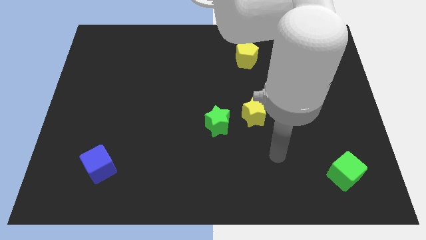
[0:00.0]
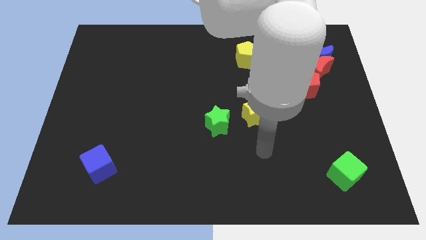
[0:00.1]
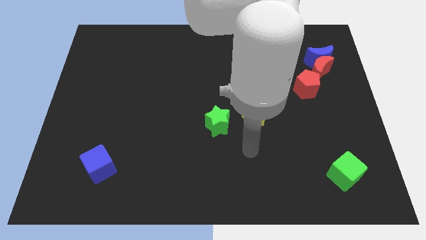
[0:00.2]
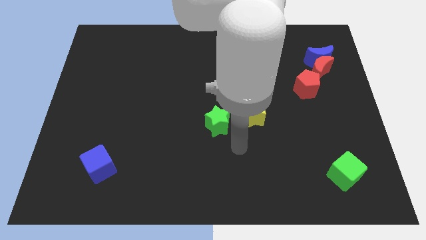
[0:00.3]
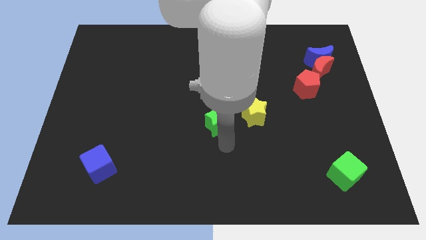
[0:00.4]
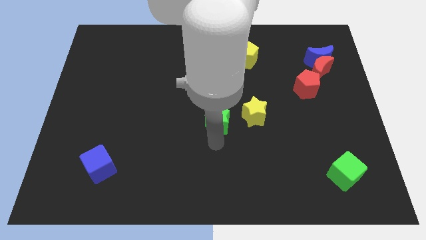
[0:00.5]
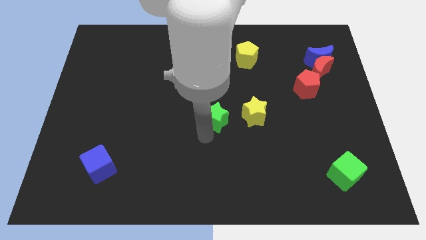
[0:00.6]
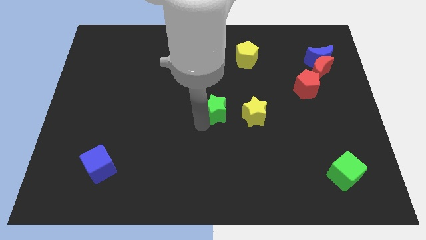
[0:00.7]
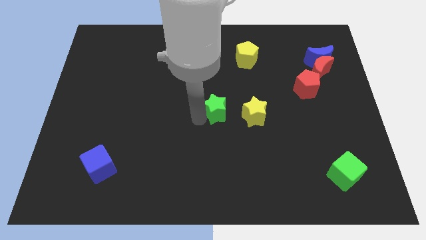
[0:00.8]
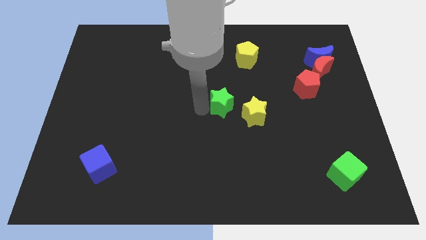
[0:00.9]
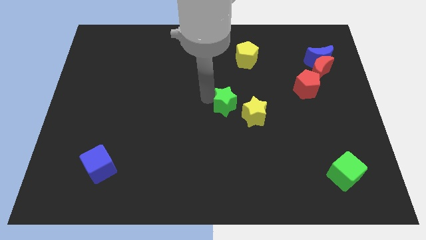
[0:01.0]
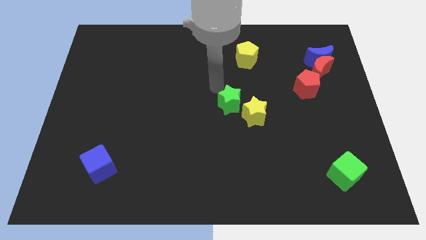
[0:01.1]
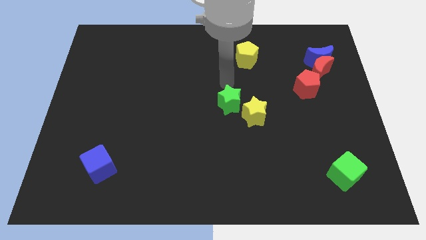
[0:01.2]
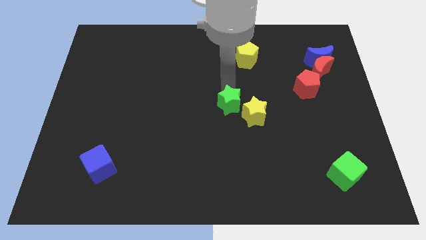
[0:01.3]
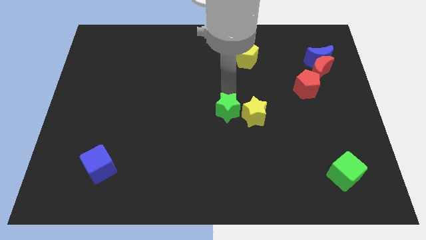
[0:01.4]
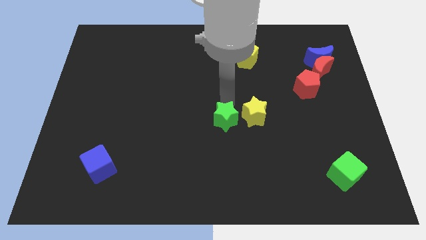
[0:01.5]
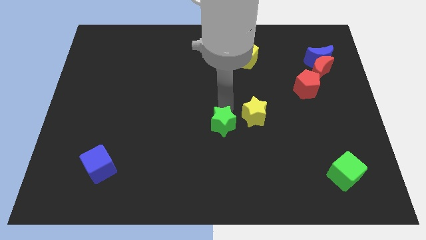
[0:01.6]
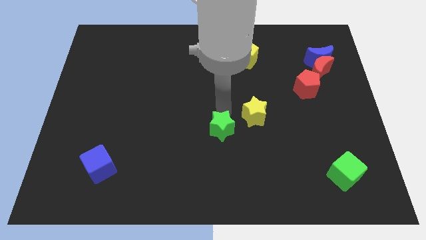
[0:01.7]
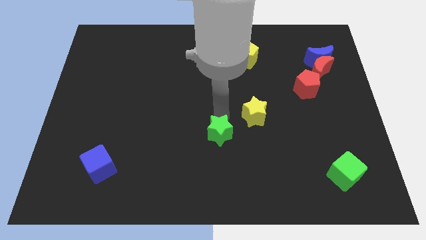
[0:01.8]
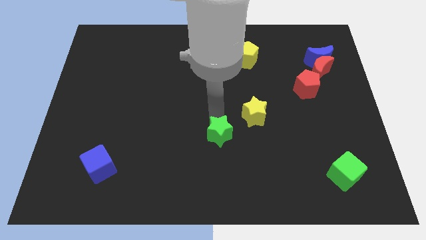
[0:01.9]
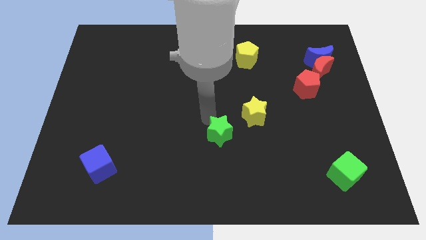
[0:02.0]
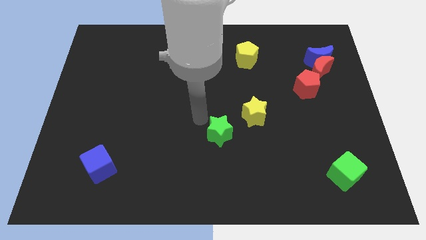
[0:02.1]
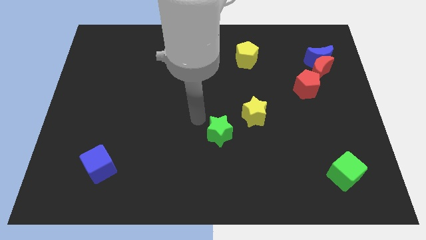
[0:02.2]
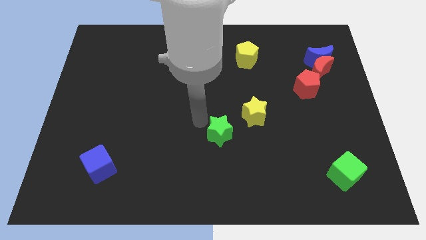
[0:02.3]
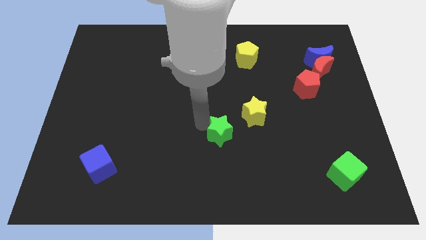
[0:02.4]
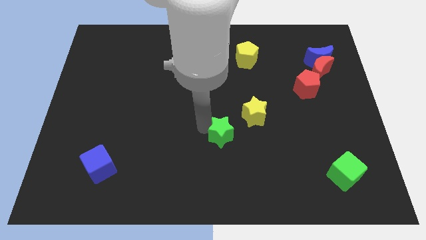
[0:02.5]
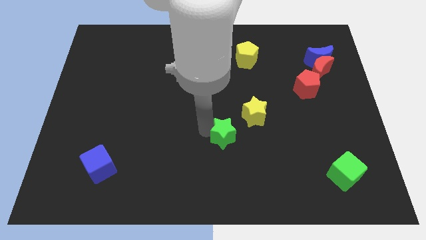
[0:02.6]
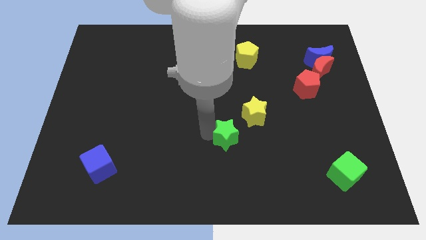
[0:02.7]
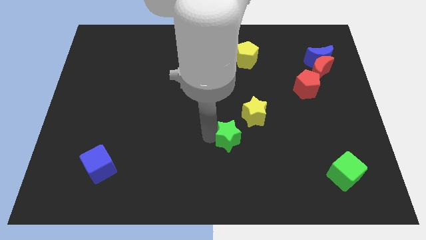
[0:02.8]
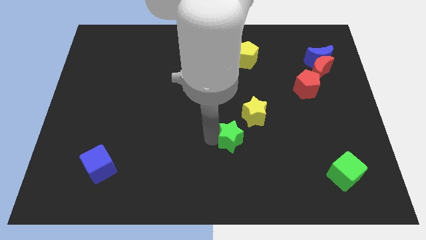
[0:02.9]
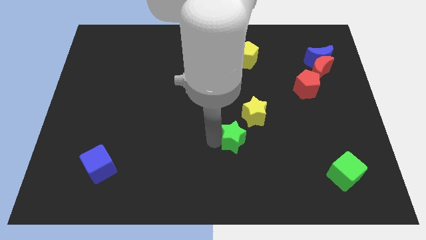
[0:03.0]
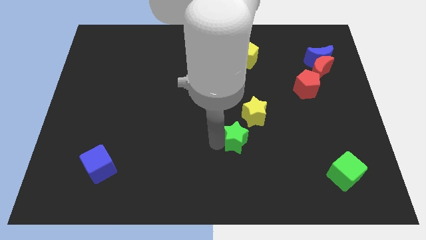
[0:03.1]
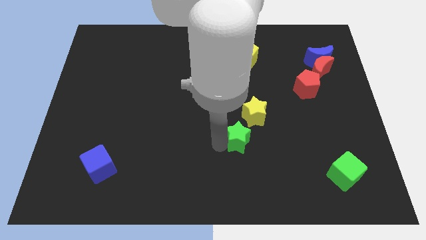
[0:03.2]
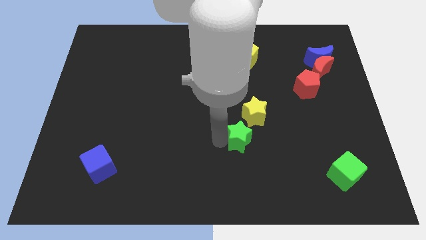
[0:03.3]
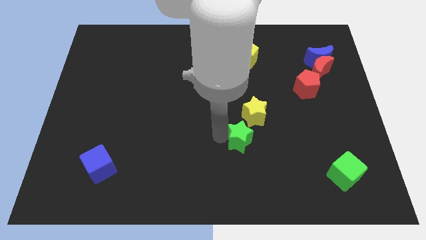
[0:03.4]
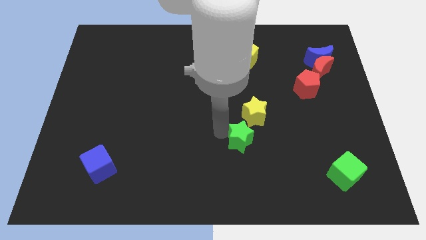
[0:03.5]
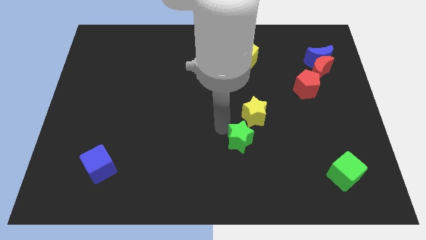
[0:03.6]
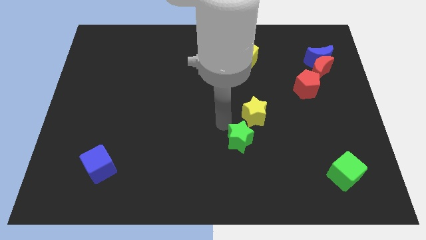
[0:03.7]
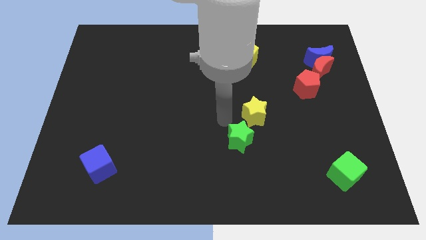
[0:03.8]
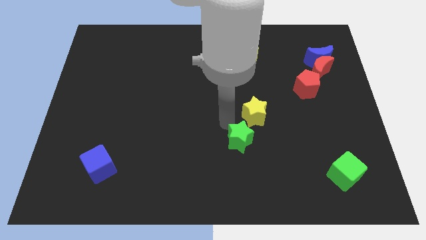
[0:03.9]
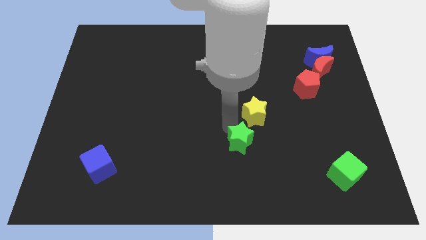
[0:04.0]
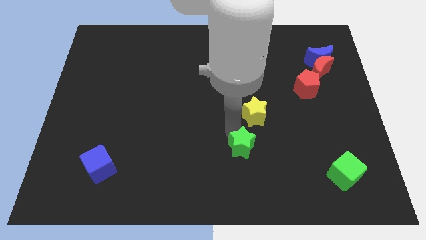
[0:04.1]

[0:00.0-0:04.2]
slightly push the green star down and right diagonally

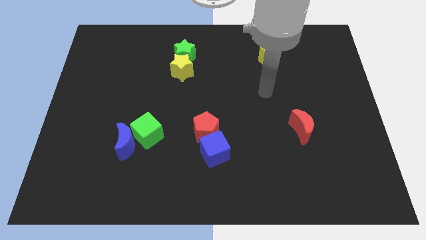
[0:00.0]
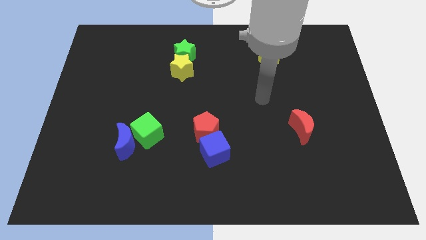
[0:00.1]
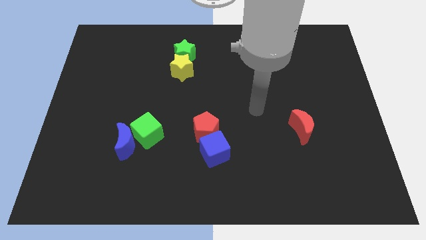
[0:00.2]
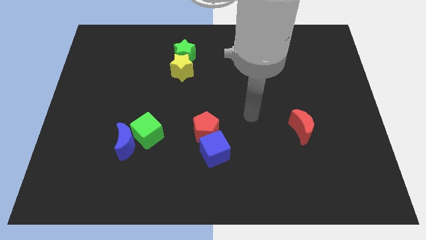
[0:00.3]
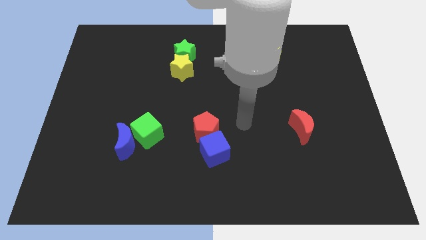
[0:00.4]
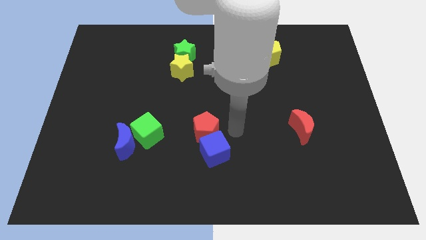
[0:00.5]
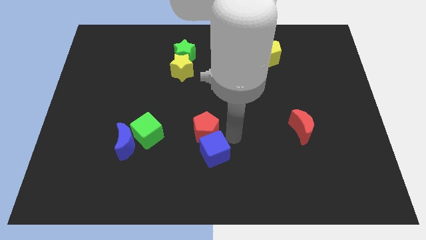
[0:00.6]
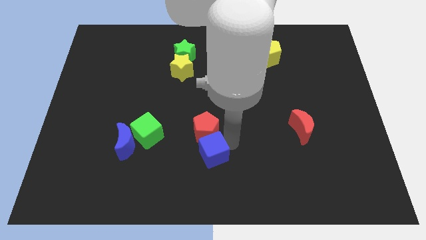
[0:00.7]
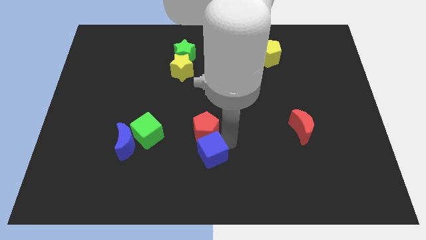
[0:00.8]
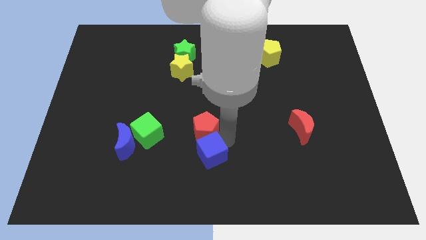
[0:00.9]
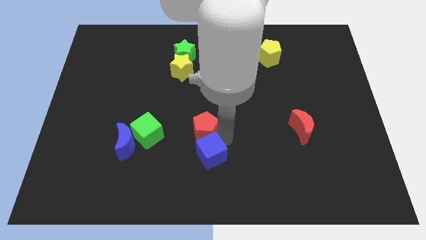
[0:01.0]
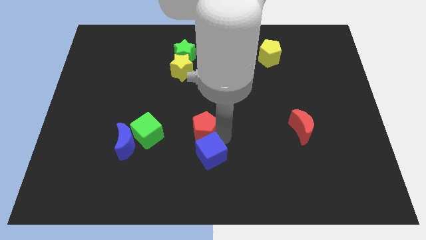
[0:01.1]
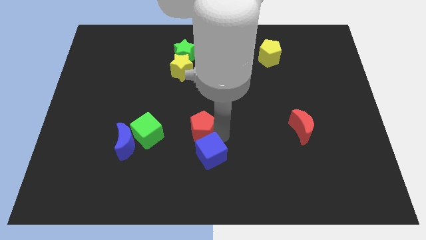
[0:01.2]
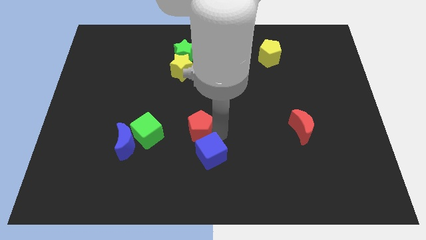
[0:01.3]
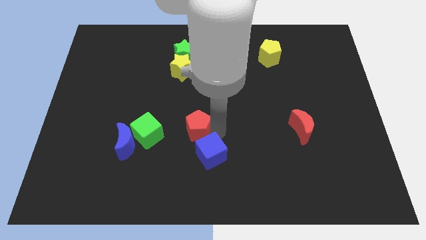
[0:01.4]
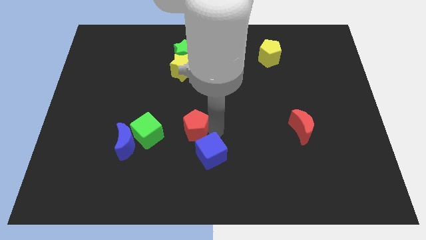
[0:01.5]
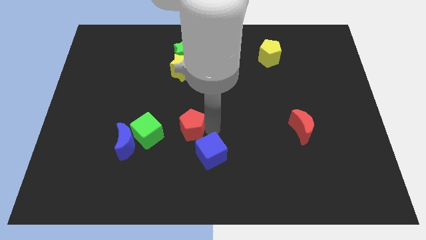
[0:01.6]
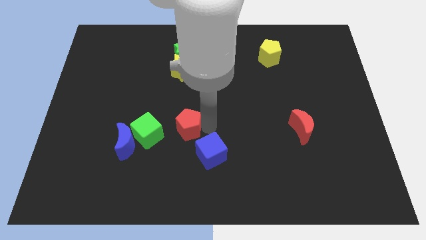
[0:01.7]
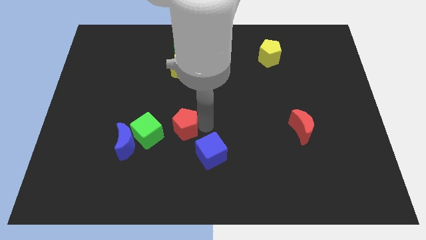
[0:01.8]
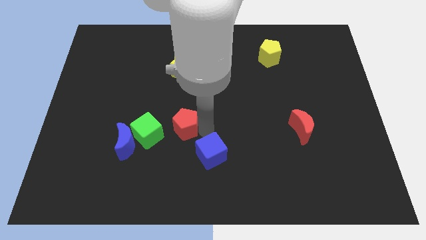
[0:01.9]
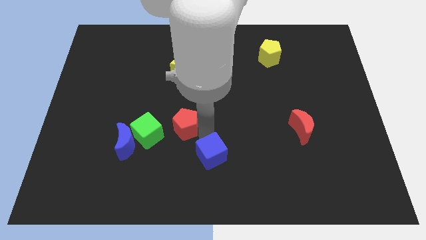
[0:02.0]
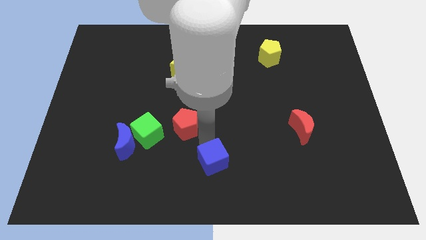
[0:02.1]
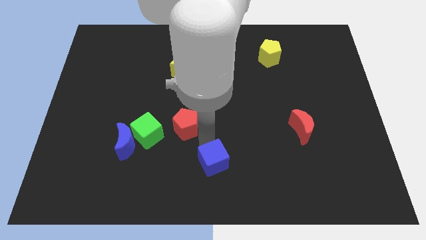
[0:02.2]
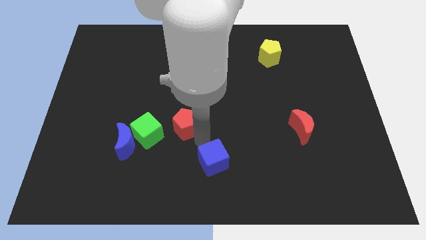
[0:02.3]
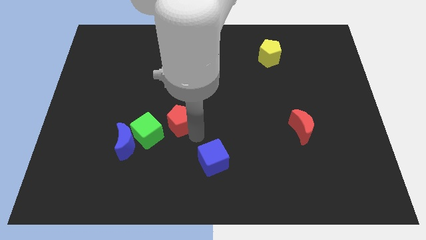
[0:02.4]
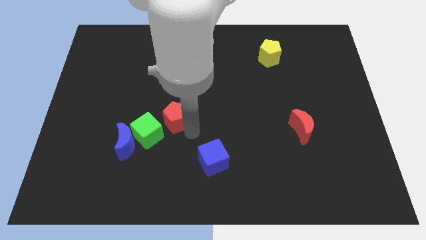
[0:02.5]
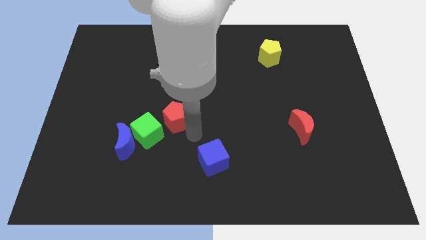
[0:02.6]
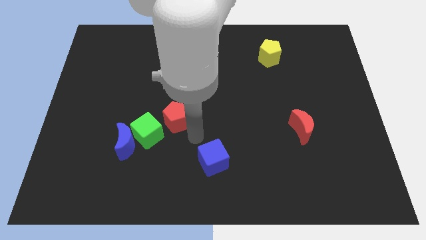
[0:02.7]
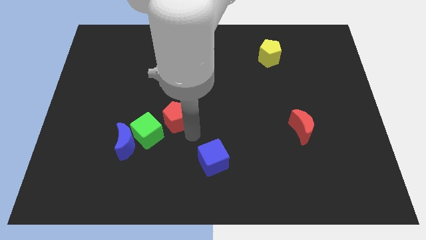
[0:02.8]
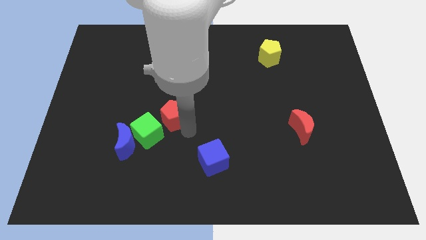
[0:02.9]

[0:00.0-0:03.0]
slightly push the red pentagon left

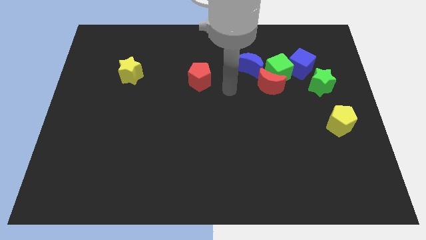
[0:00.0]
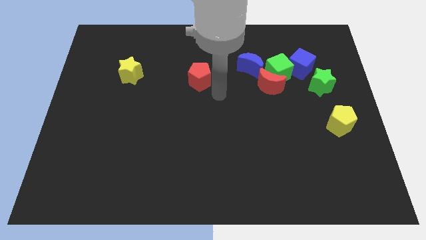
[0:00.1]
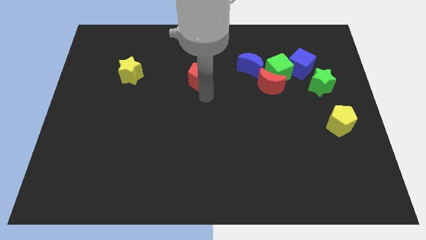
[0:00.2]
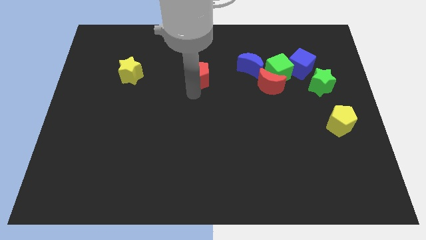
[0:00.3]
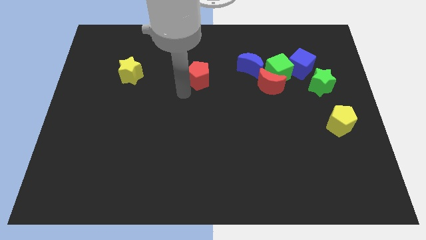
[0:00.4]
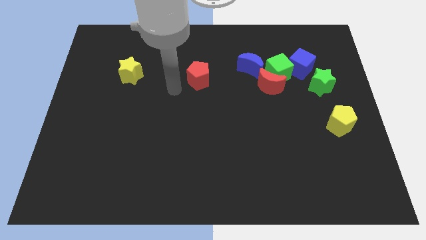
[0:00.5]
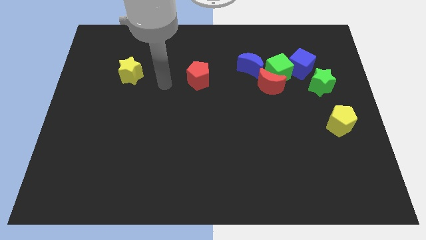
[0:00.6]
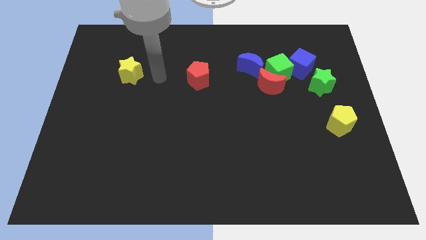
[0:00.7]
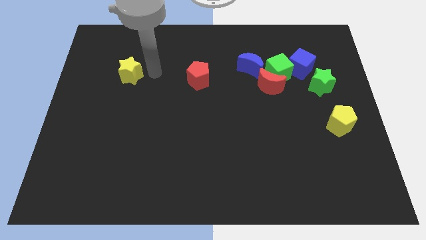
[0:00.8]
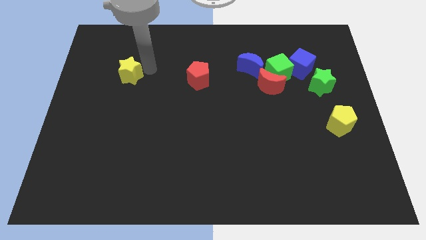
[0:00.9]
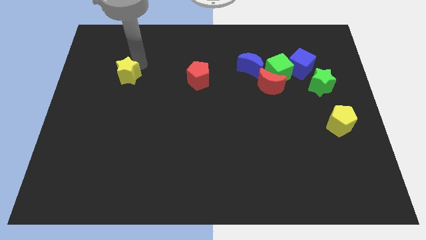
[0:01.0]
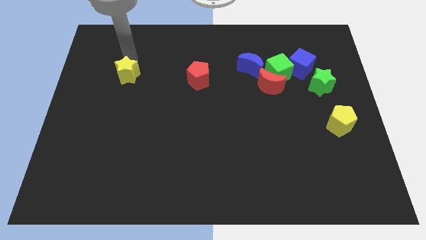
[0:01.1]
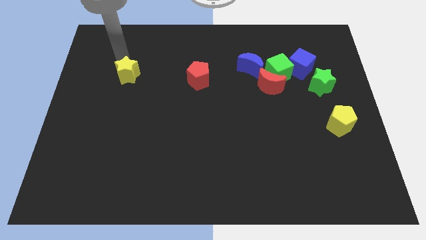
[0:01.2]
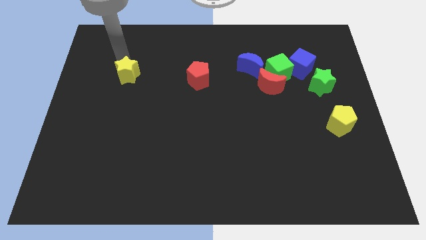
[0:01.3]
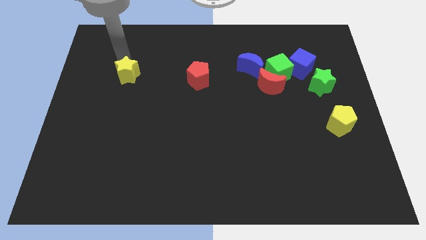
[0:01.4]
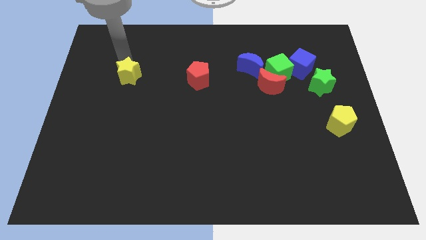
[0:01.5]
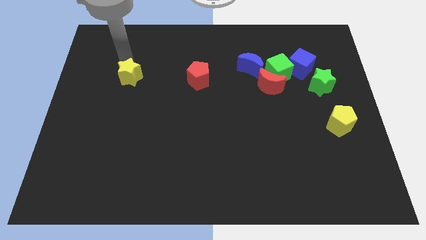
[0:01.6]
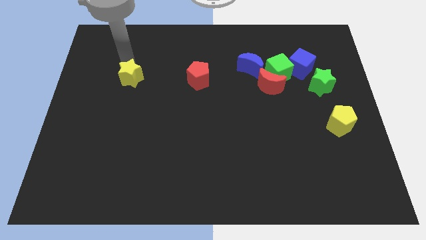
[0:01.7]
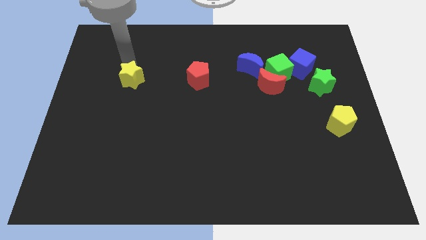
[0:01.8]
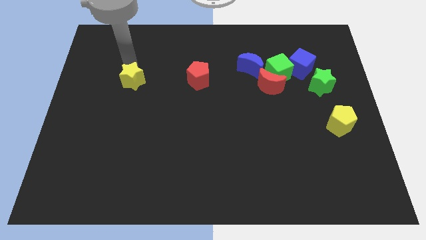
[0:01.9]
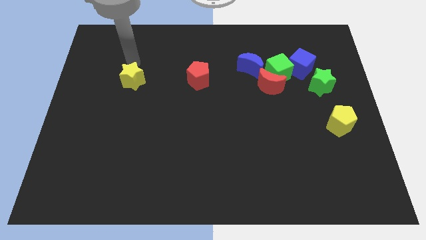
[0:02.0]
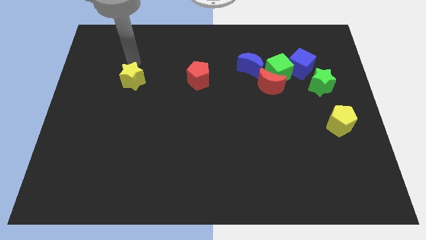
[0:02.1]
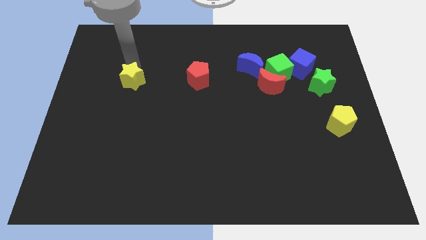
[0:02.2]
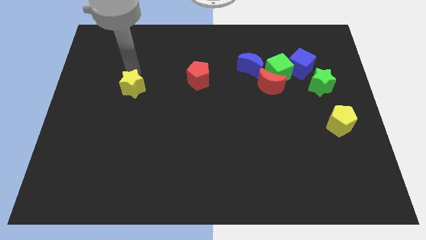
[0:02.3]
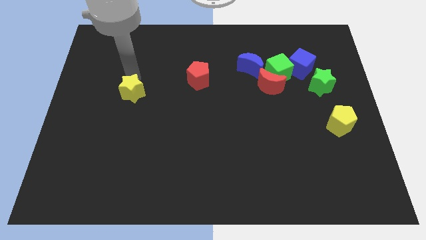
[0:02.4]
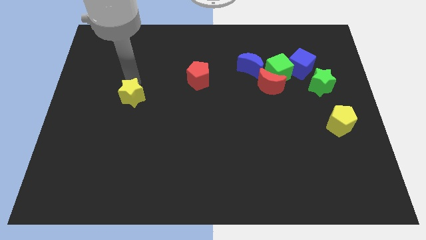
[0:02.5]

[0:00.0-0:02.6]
push the yellow star a little bit down
